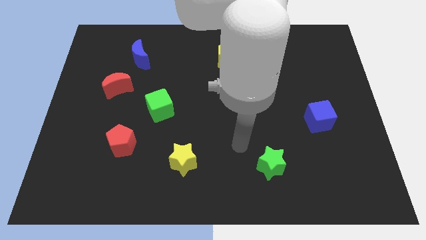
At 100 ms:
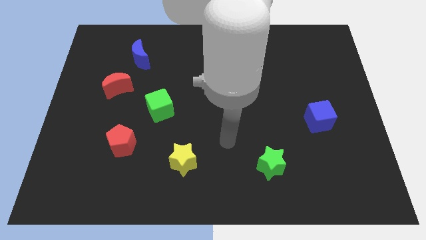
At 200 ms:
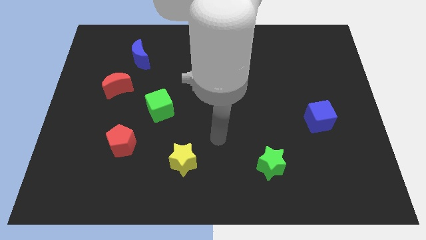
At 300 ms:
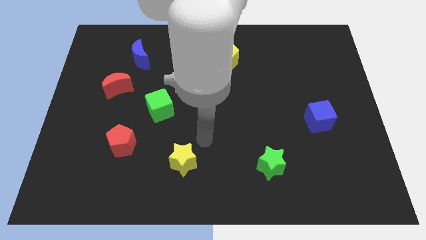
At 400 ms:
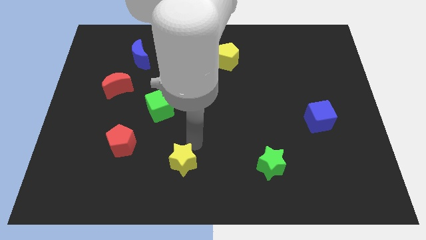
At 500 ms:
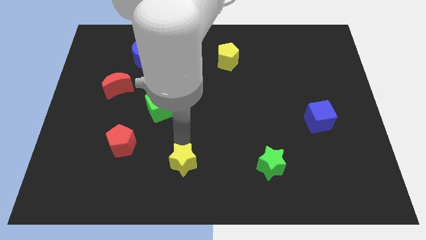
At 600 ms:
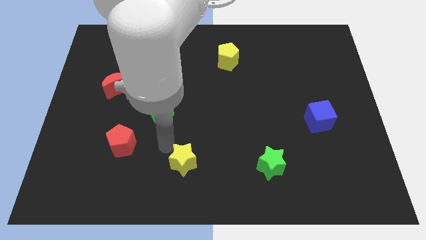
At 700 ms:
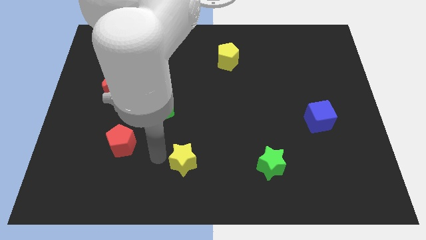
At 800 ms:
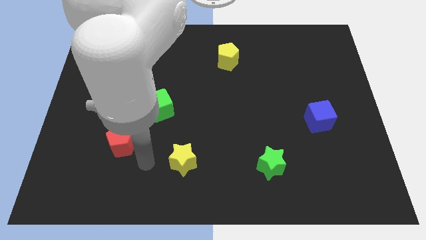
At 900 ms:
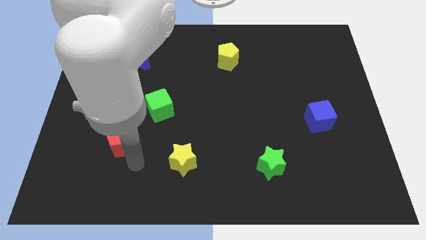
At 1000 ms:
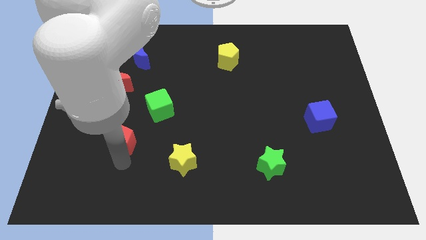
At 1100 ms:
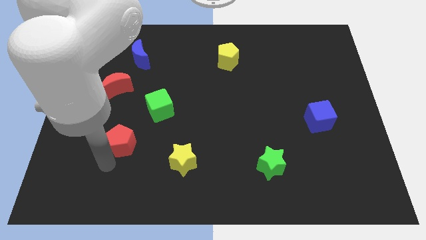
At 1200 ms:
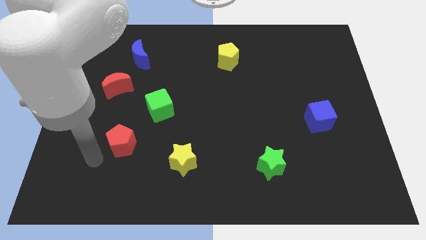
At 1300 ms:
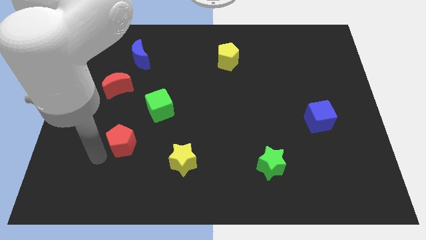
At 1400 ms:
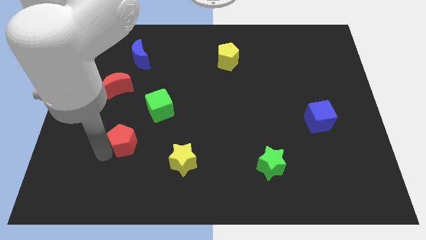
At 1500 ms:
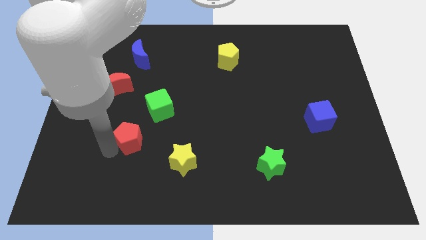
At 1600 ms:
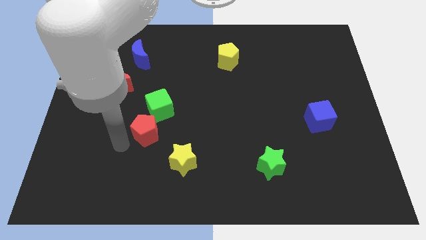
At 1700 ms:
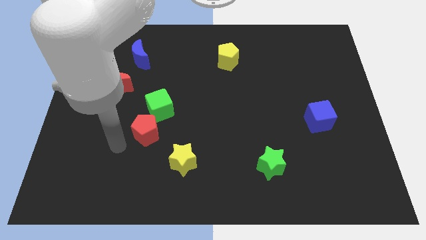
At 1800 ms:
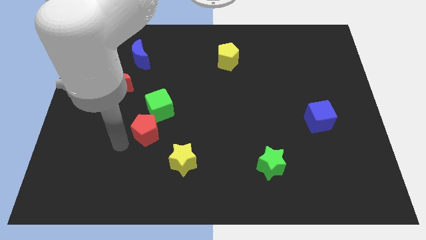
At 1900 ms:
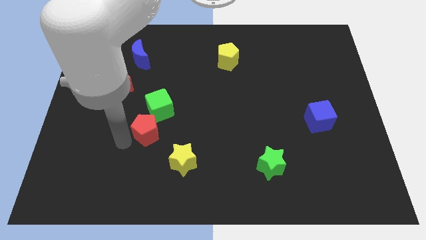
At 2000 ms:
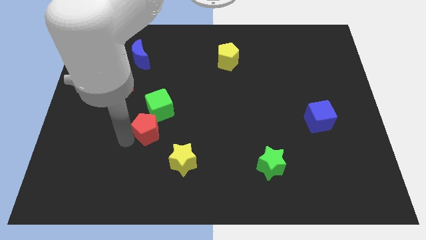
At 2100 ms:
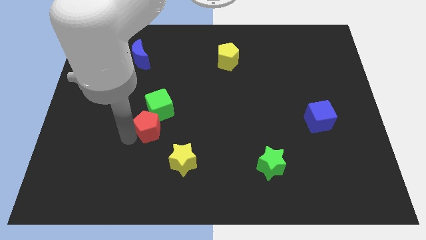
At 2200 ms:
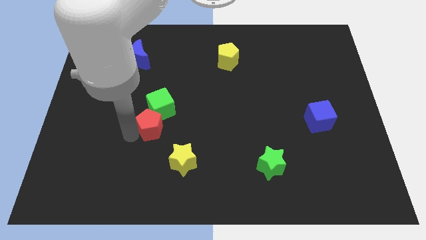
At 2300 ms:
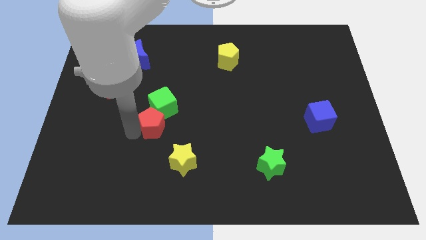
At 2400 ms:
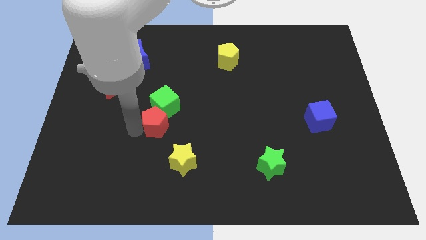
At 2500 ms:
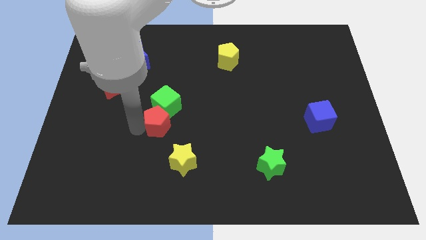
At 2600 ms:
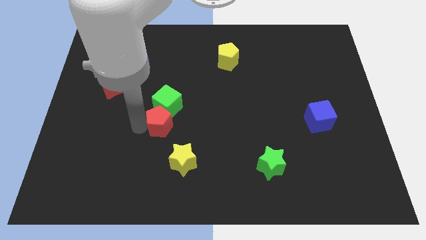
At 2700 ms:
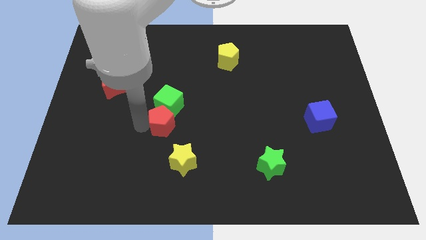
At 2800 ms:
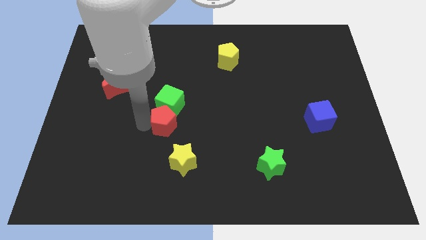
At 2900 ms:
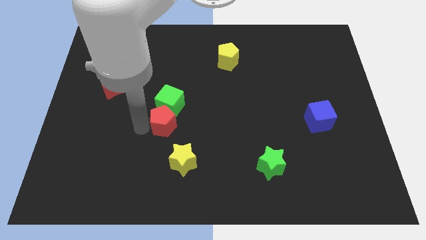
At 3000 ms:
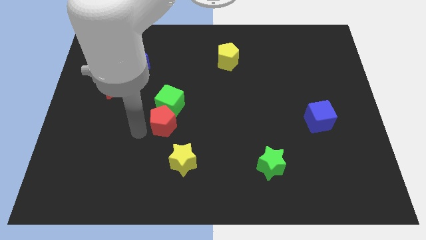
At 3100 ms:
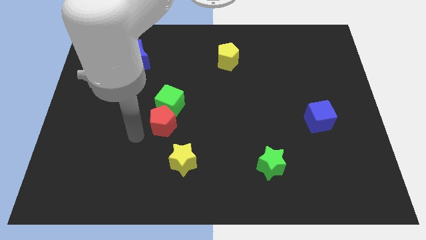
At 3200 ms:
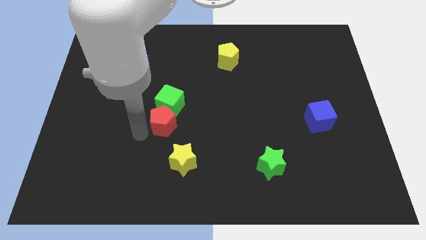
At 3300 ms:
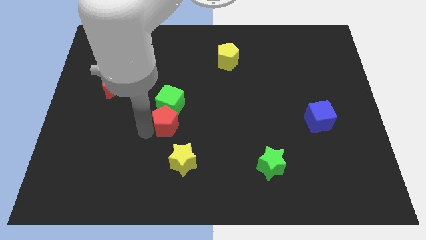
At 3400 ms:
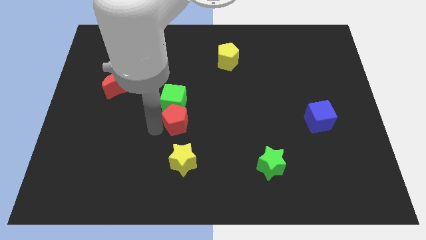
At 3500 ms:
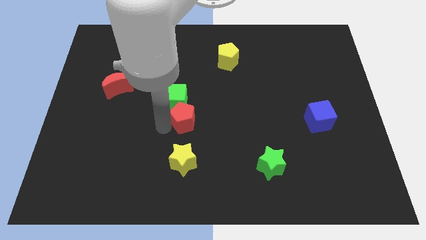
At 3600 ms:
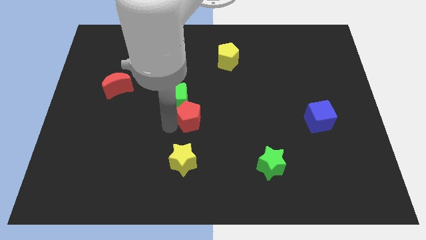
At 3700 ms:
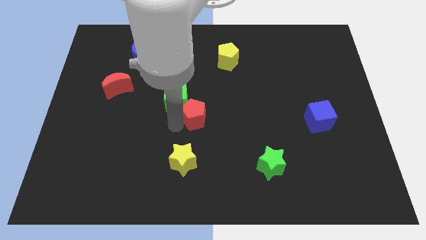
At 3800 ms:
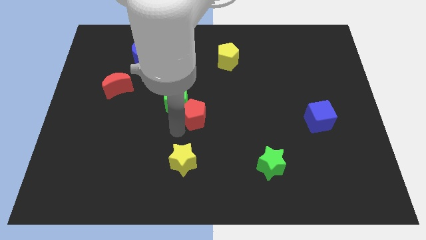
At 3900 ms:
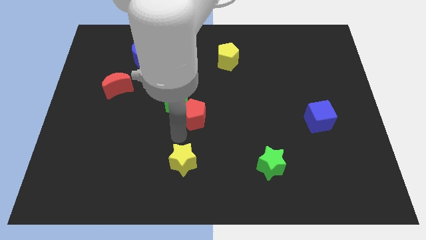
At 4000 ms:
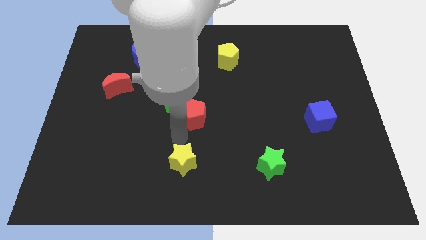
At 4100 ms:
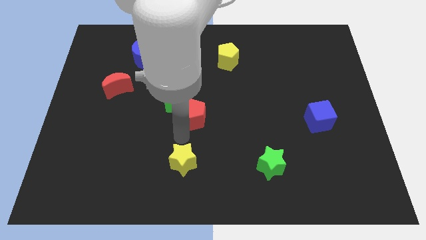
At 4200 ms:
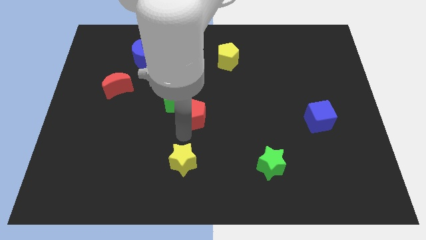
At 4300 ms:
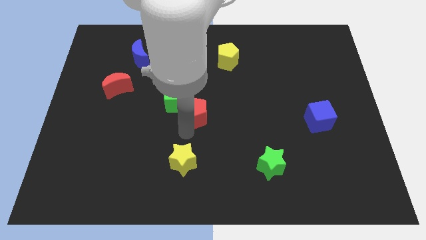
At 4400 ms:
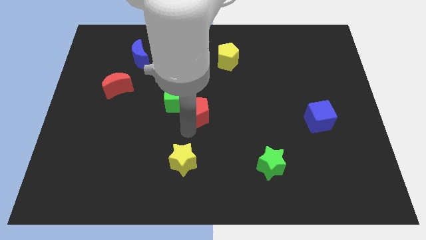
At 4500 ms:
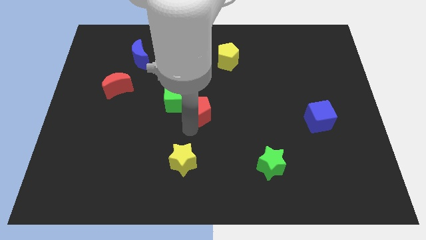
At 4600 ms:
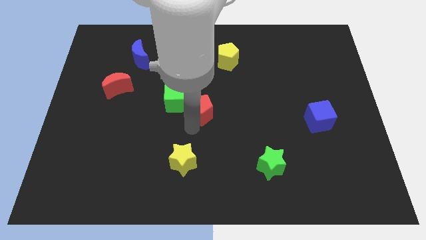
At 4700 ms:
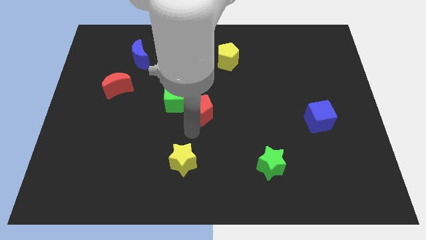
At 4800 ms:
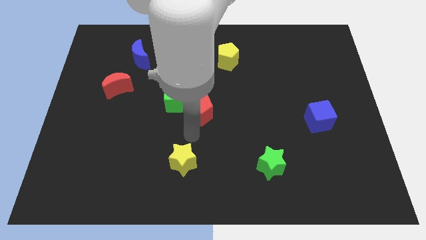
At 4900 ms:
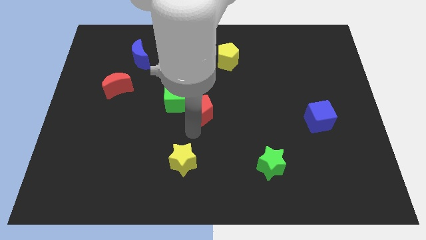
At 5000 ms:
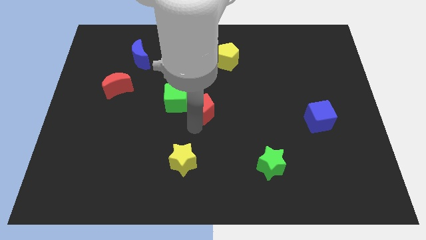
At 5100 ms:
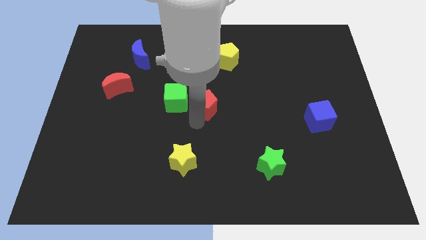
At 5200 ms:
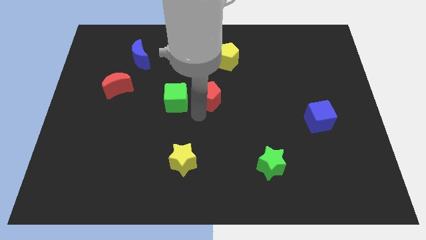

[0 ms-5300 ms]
push the red pentagon to the bottom side of the yellow pentagon

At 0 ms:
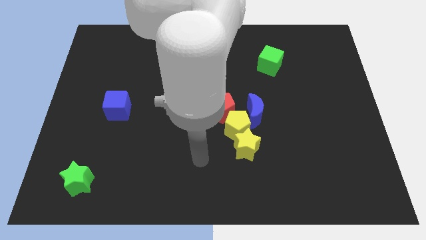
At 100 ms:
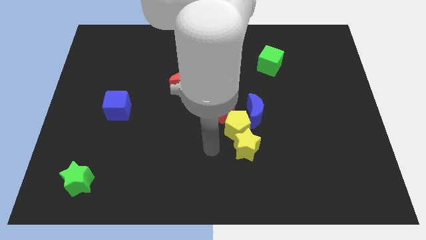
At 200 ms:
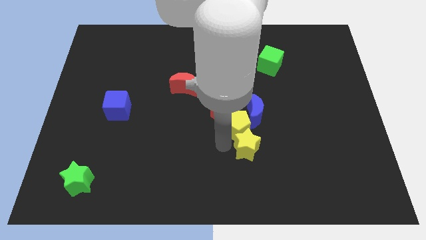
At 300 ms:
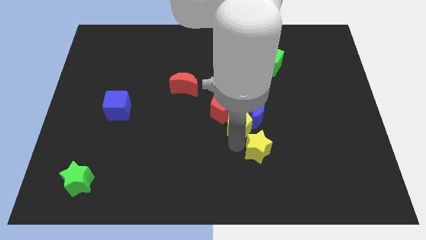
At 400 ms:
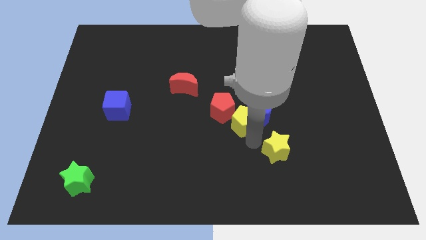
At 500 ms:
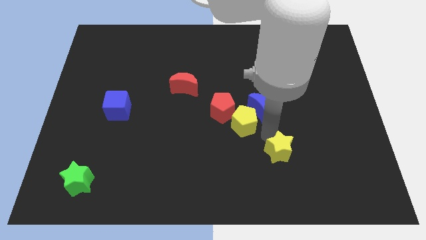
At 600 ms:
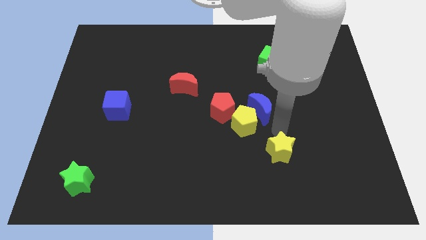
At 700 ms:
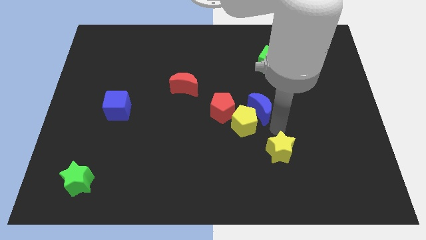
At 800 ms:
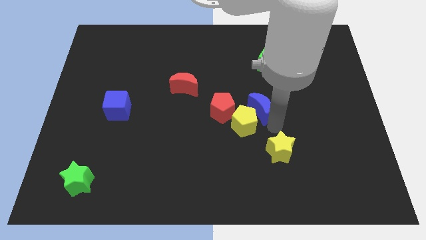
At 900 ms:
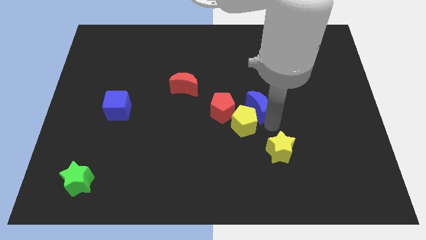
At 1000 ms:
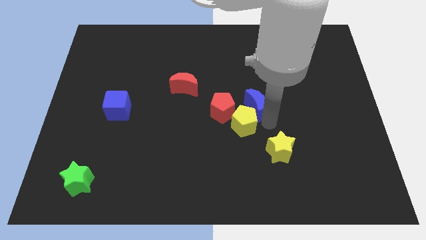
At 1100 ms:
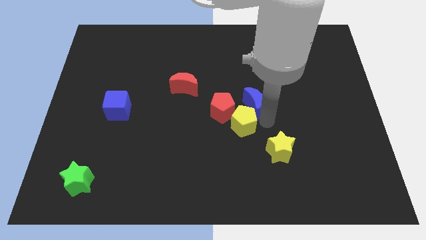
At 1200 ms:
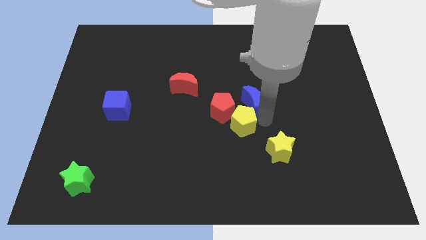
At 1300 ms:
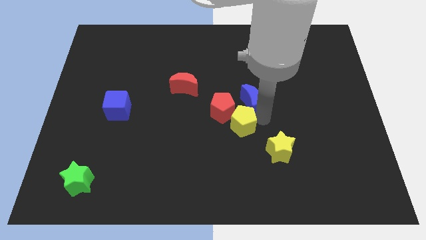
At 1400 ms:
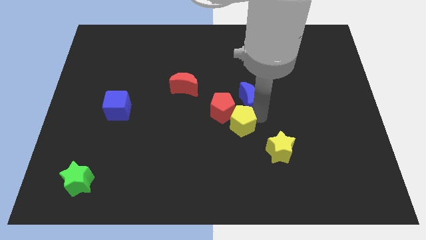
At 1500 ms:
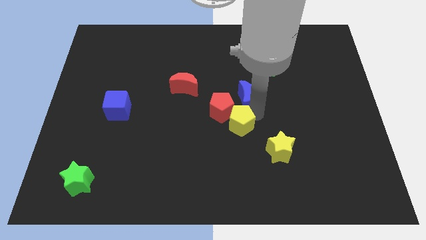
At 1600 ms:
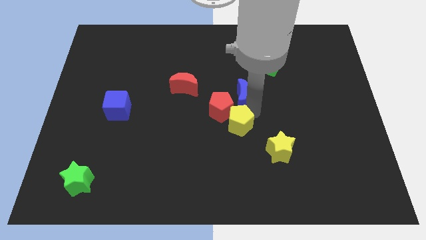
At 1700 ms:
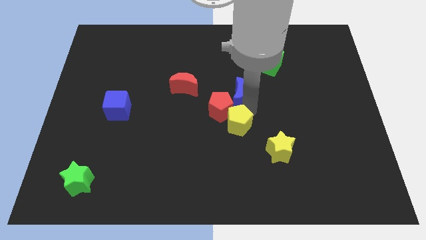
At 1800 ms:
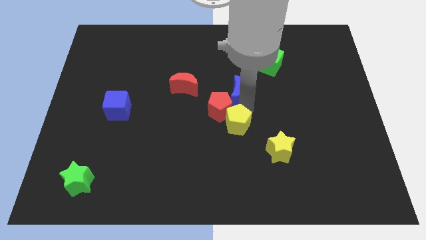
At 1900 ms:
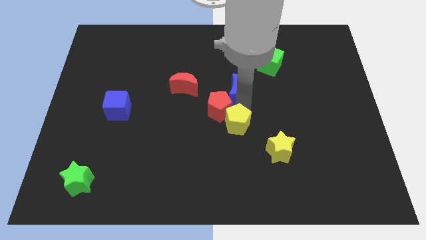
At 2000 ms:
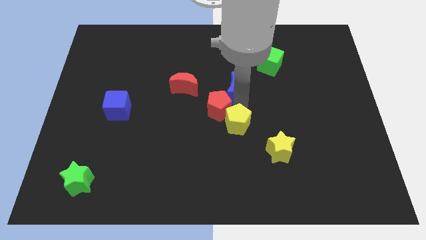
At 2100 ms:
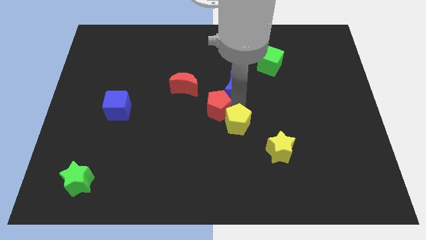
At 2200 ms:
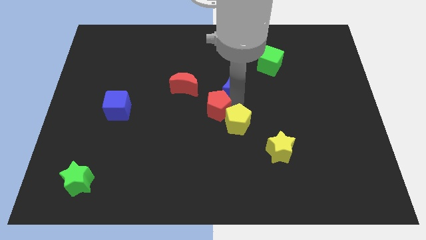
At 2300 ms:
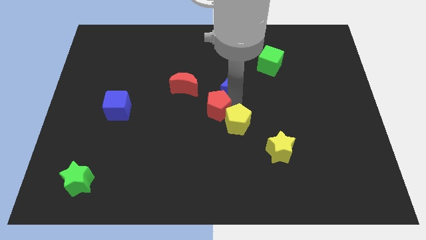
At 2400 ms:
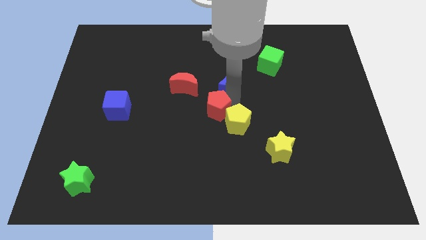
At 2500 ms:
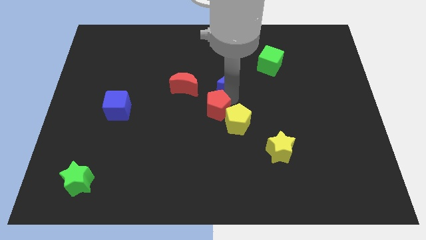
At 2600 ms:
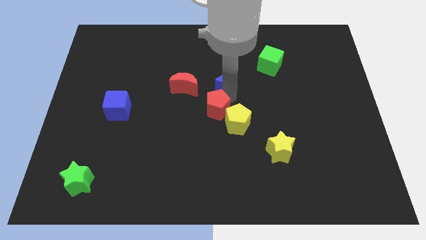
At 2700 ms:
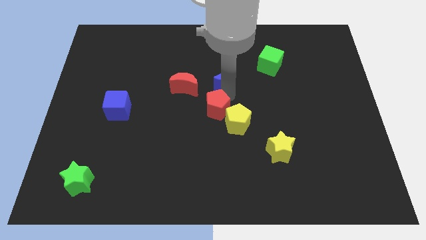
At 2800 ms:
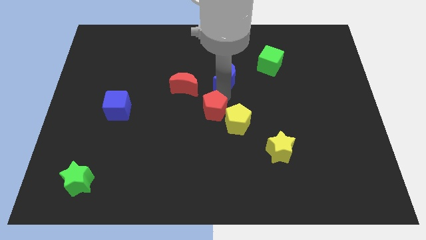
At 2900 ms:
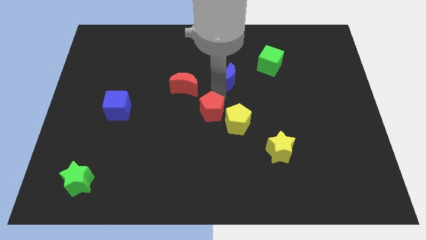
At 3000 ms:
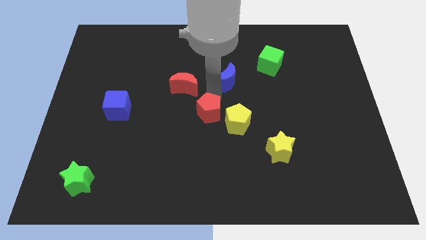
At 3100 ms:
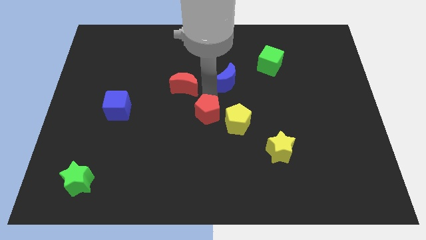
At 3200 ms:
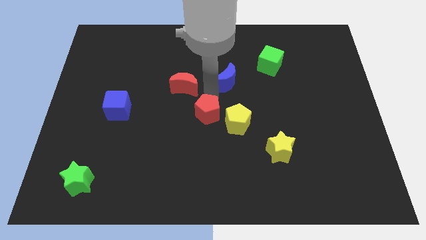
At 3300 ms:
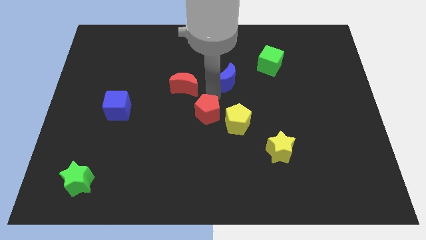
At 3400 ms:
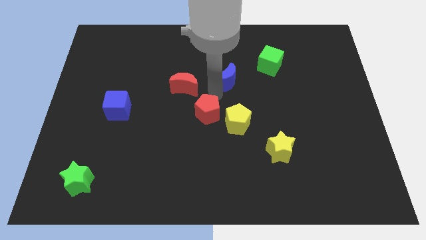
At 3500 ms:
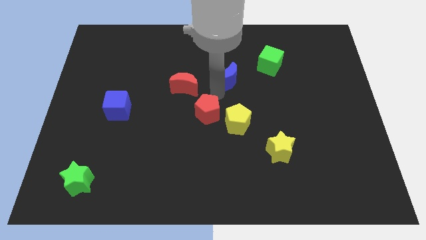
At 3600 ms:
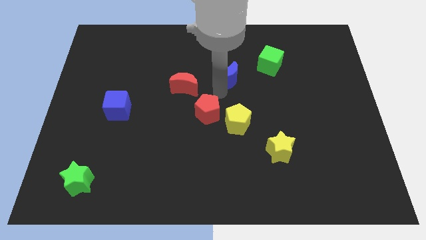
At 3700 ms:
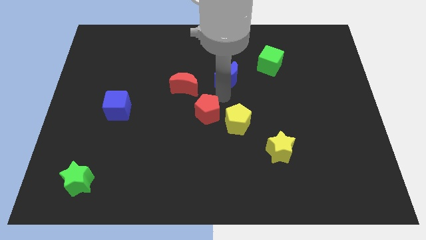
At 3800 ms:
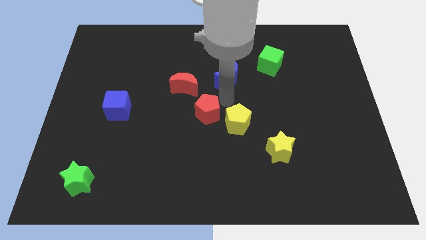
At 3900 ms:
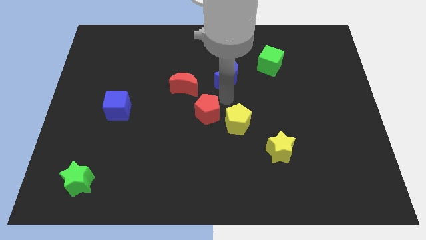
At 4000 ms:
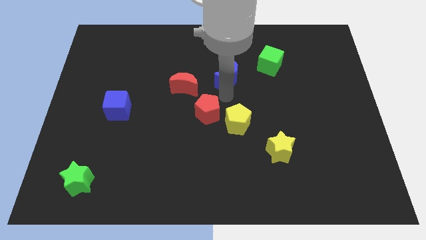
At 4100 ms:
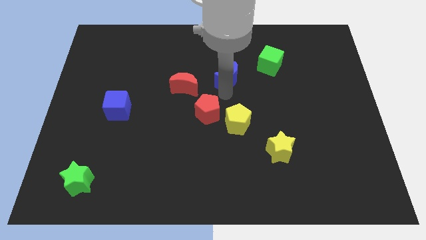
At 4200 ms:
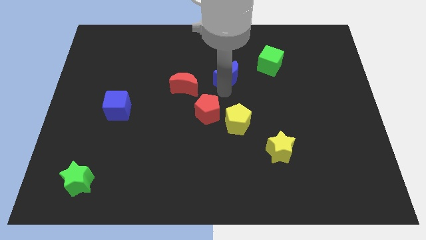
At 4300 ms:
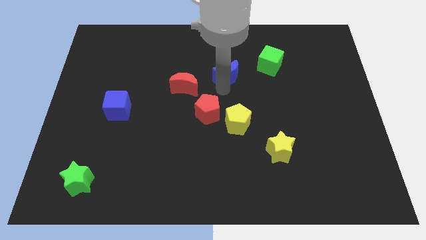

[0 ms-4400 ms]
slide the blue moon just left of the green cube
